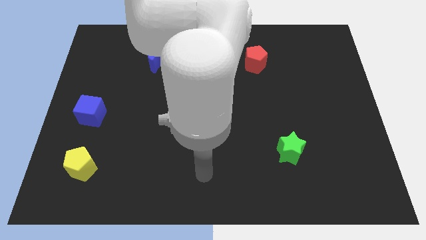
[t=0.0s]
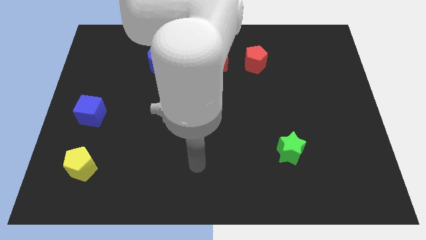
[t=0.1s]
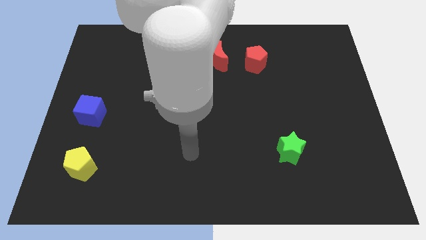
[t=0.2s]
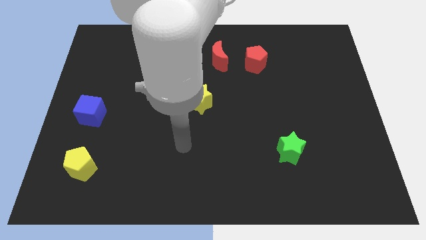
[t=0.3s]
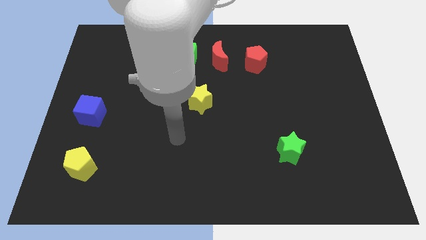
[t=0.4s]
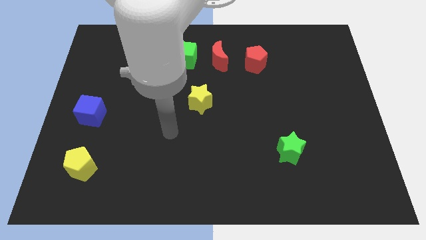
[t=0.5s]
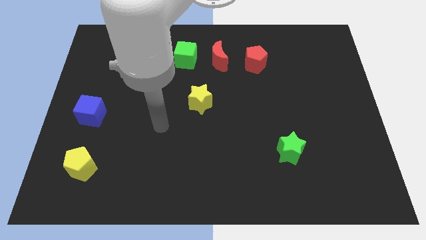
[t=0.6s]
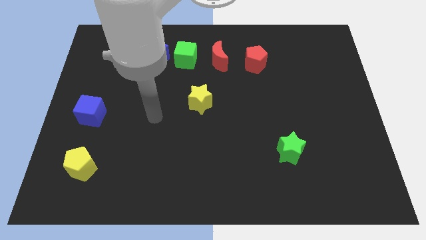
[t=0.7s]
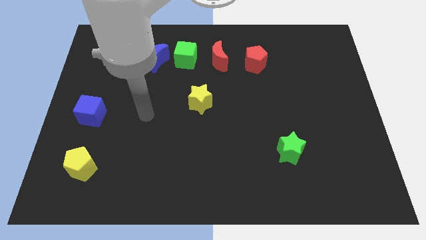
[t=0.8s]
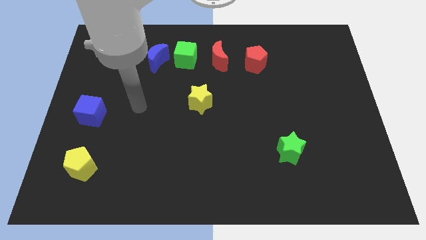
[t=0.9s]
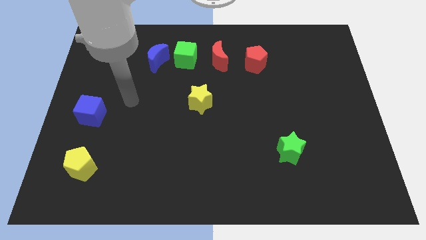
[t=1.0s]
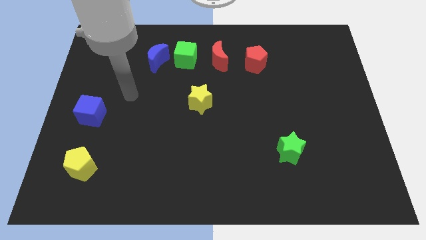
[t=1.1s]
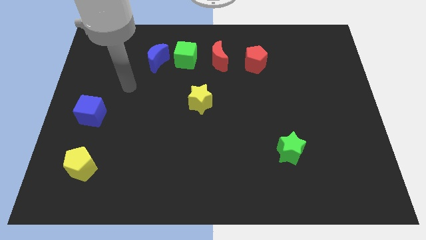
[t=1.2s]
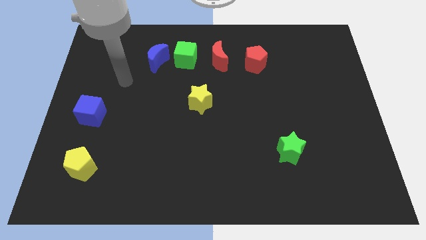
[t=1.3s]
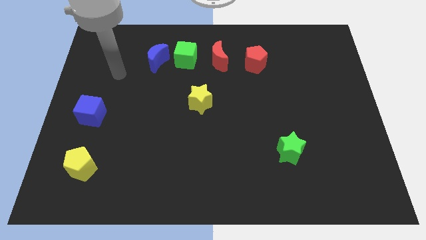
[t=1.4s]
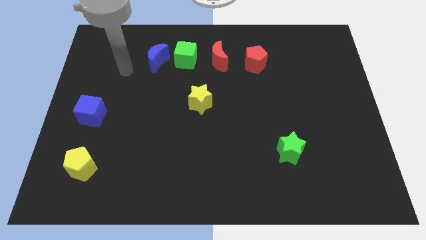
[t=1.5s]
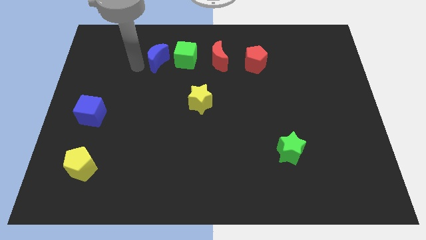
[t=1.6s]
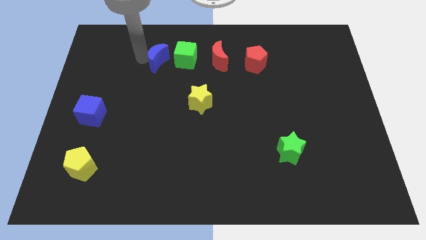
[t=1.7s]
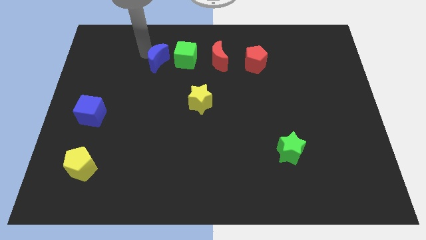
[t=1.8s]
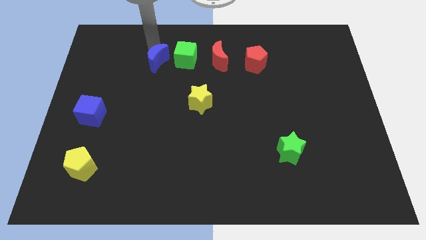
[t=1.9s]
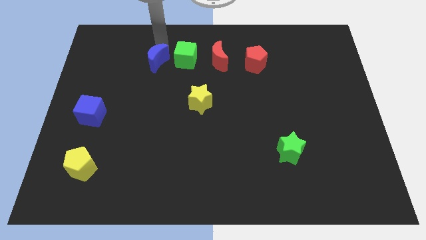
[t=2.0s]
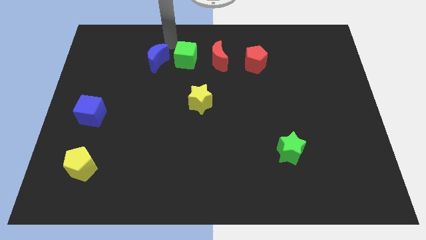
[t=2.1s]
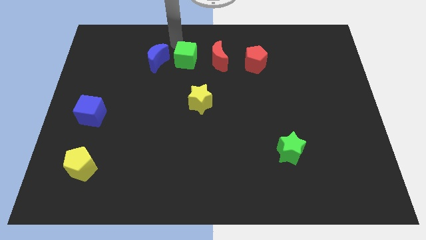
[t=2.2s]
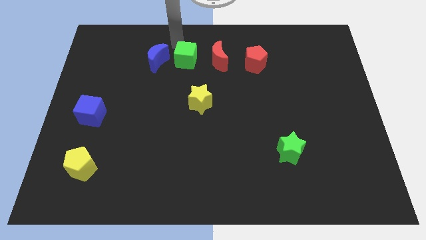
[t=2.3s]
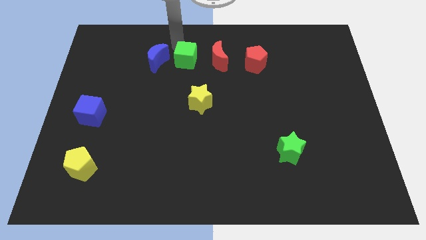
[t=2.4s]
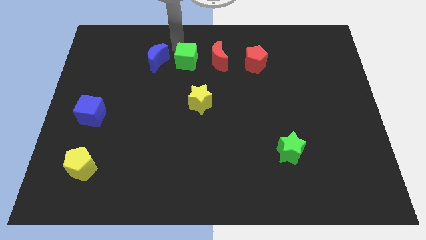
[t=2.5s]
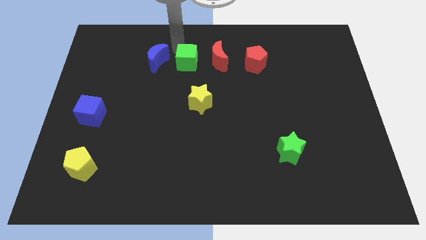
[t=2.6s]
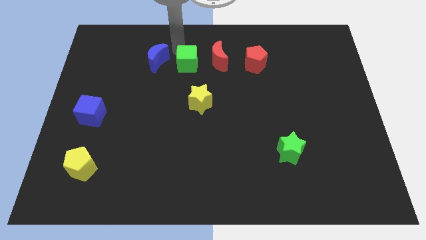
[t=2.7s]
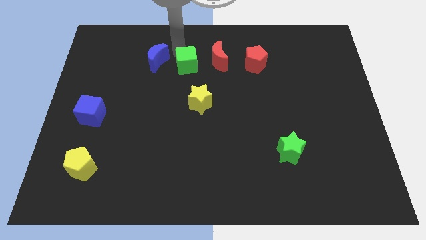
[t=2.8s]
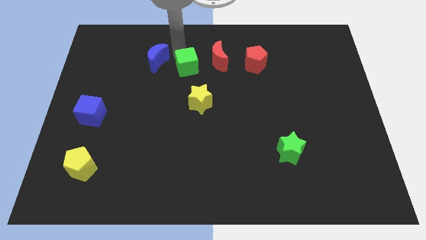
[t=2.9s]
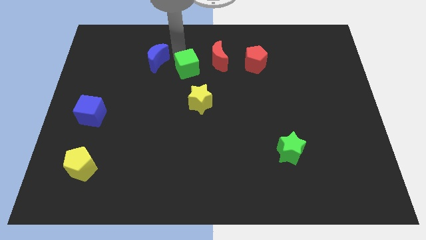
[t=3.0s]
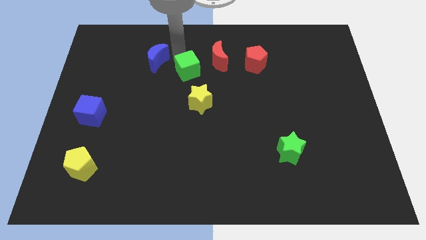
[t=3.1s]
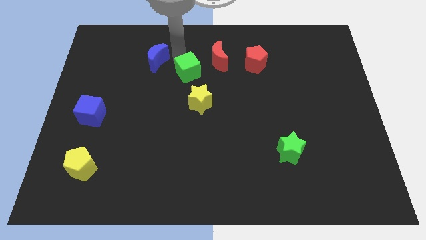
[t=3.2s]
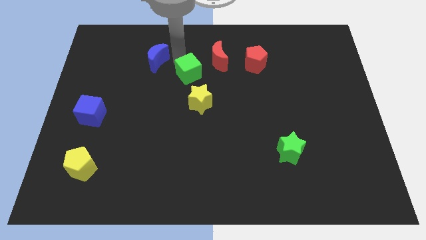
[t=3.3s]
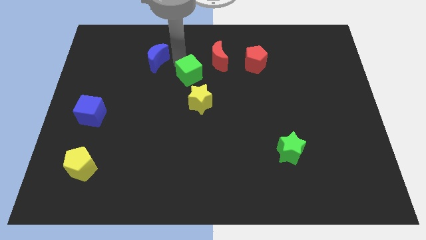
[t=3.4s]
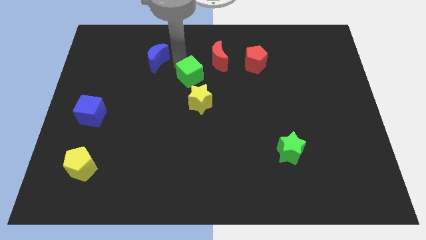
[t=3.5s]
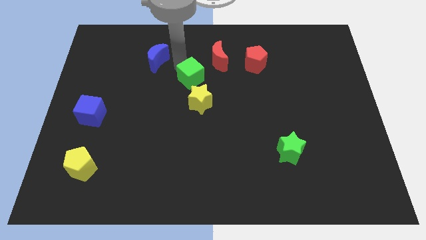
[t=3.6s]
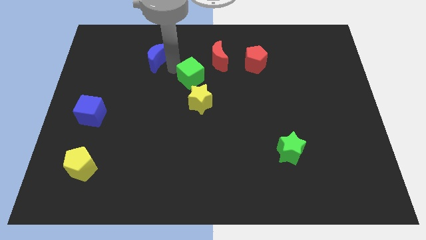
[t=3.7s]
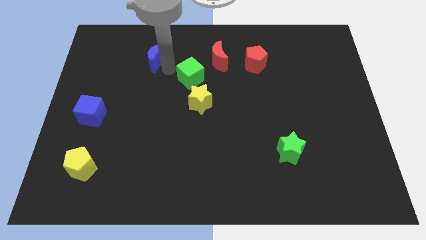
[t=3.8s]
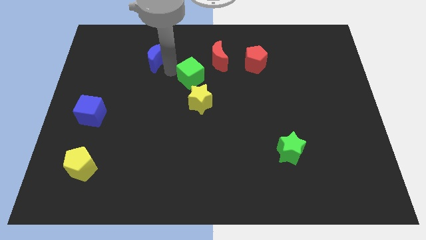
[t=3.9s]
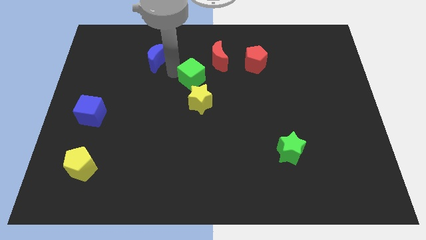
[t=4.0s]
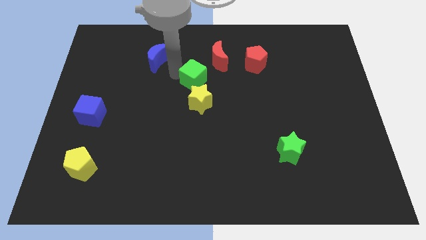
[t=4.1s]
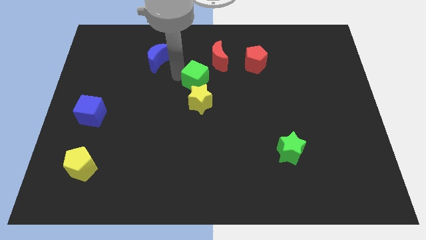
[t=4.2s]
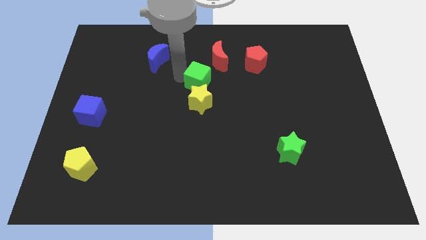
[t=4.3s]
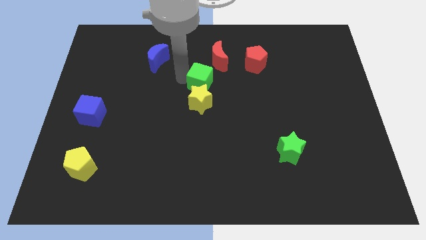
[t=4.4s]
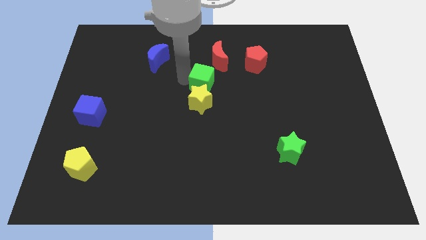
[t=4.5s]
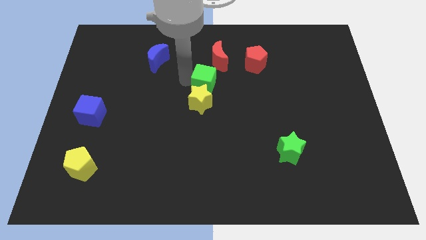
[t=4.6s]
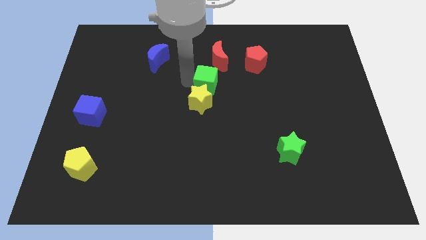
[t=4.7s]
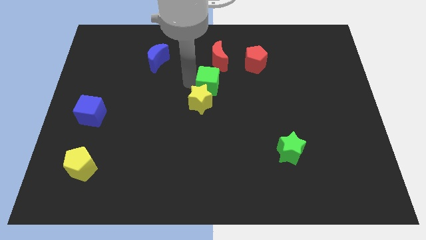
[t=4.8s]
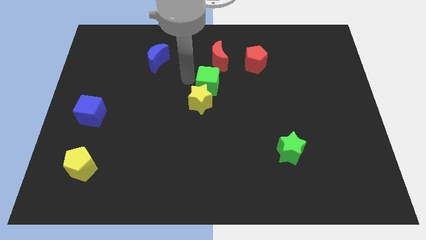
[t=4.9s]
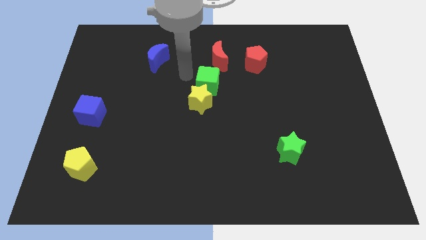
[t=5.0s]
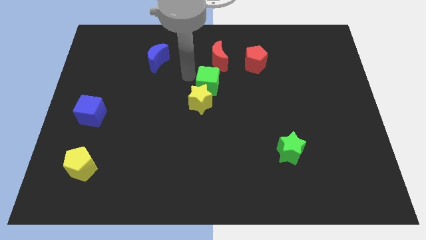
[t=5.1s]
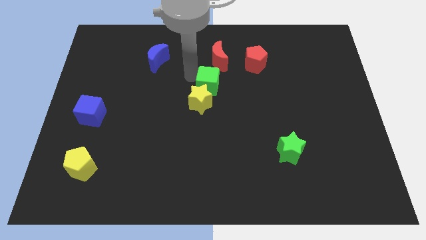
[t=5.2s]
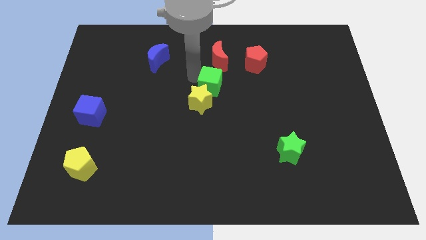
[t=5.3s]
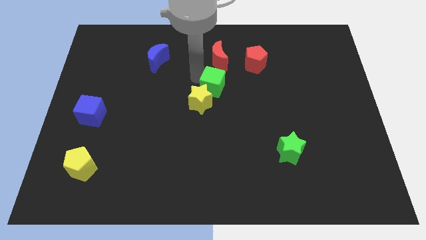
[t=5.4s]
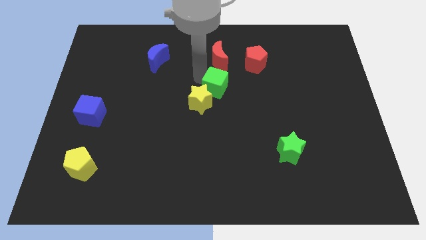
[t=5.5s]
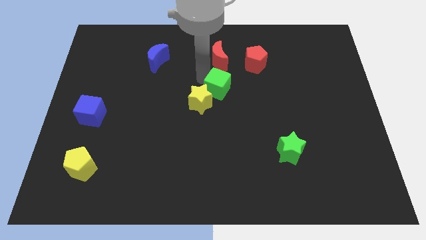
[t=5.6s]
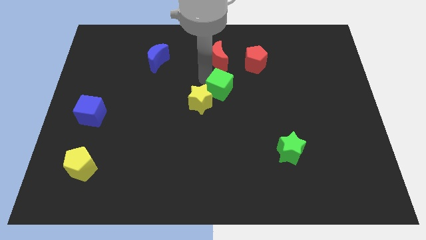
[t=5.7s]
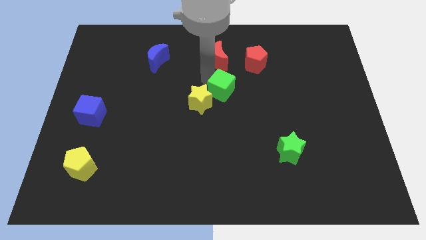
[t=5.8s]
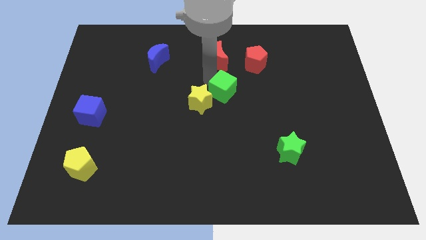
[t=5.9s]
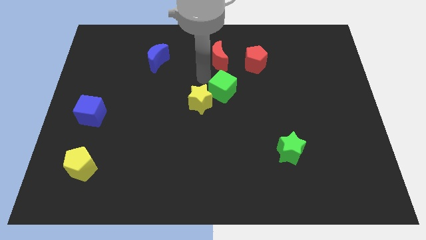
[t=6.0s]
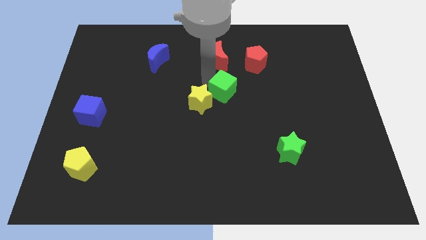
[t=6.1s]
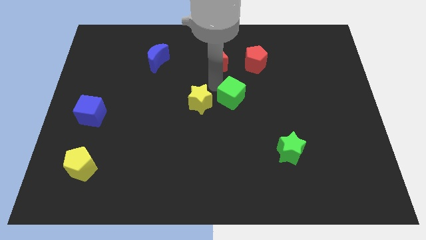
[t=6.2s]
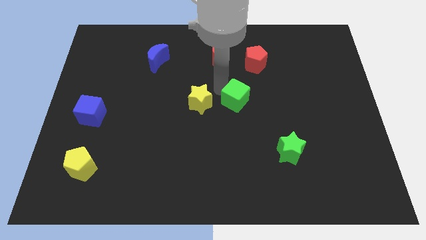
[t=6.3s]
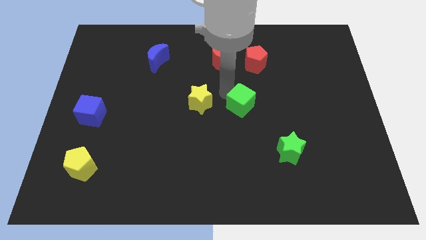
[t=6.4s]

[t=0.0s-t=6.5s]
push the green cube diagonally down and to the right

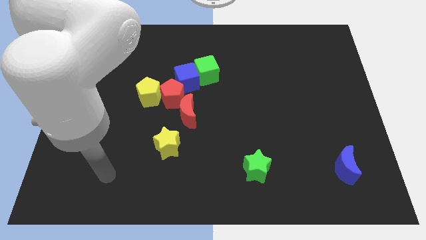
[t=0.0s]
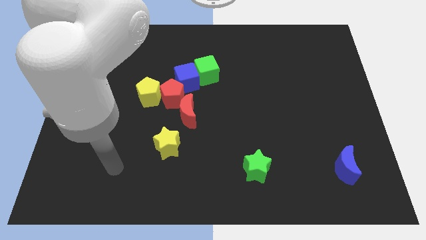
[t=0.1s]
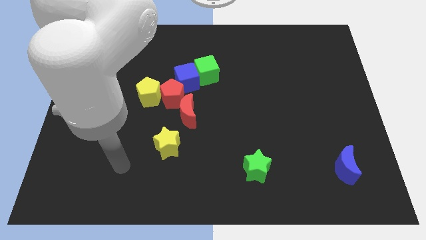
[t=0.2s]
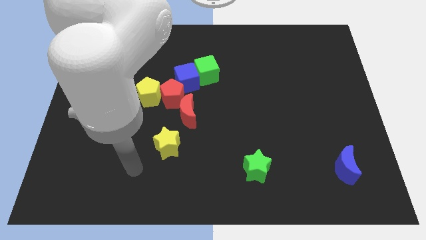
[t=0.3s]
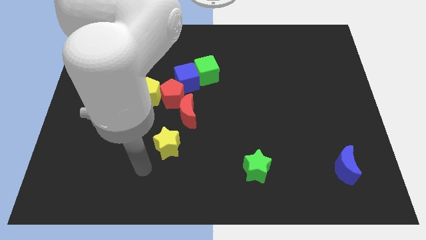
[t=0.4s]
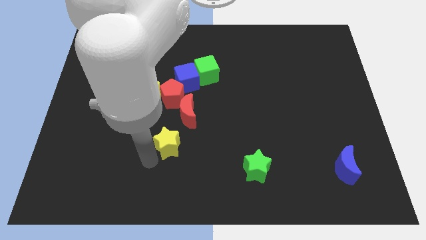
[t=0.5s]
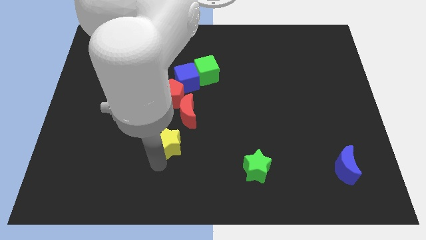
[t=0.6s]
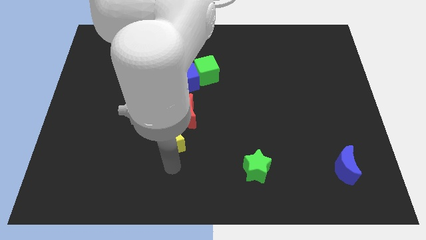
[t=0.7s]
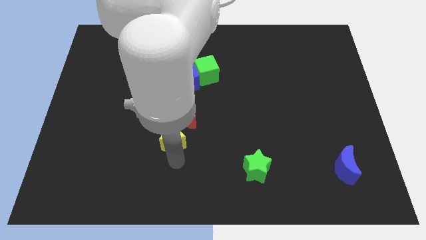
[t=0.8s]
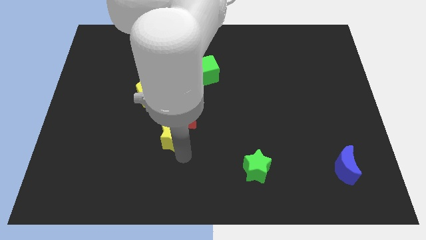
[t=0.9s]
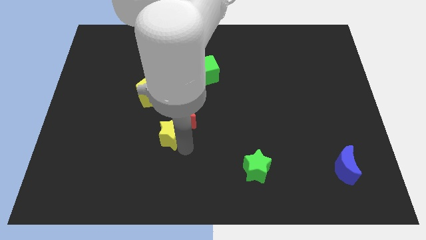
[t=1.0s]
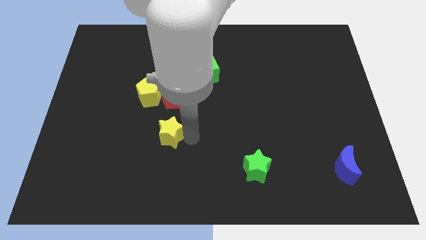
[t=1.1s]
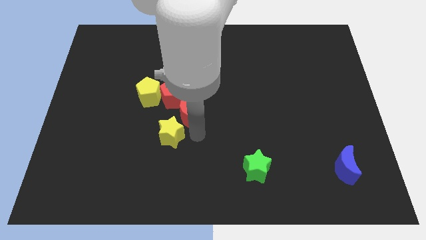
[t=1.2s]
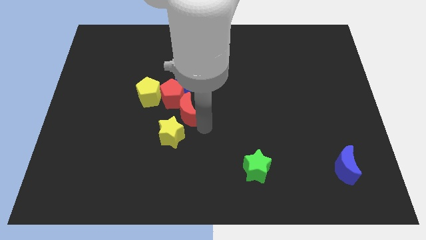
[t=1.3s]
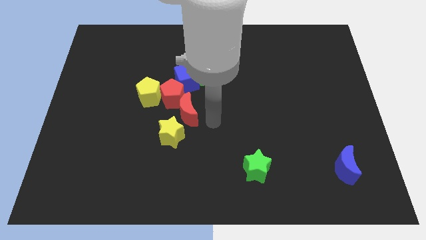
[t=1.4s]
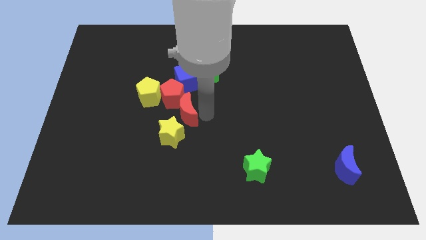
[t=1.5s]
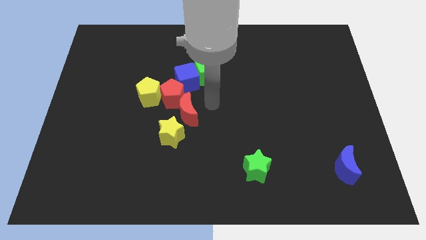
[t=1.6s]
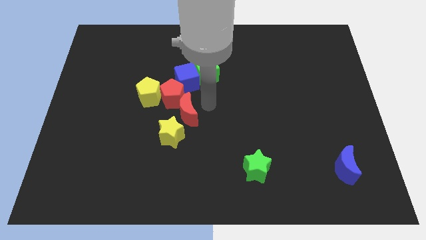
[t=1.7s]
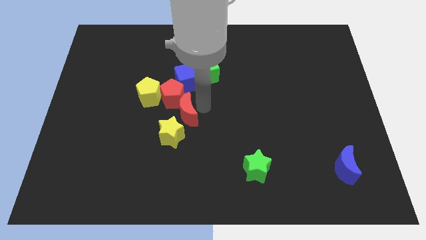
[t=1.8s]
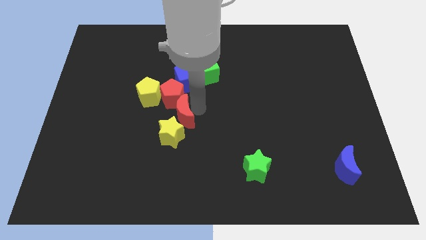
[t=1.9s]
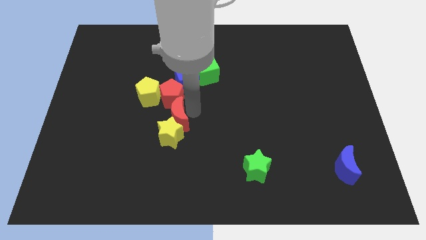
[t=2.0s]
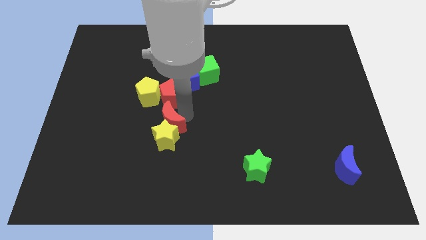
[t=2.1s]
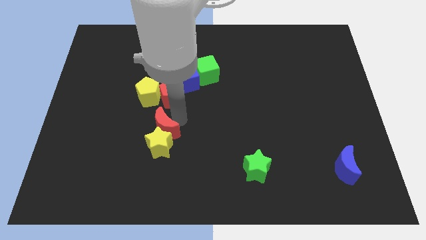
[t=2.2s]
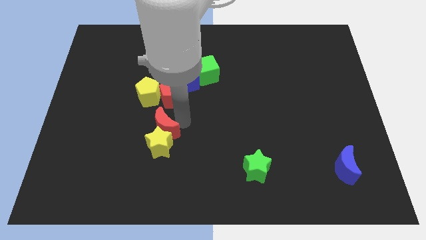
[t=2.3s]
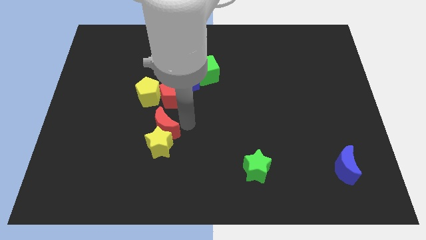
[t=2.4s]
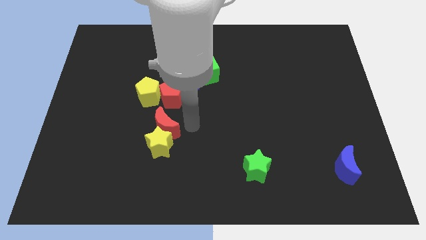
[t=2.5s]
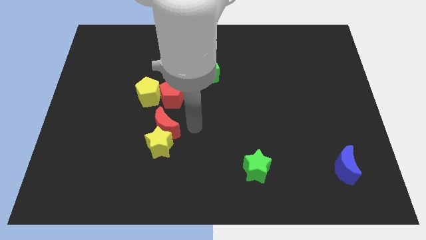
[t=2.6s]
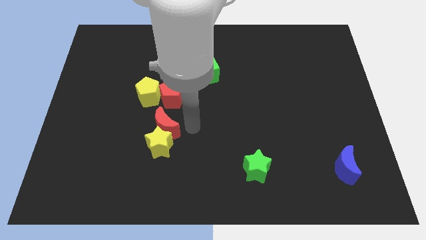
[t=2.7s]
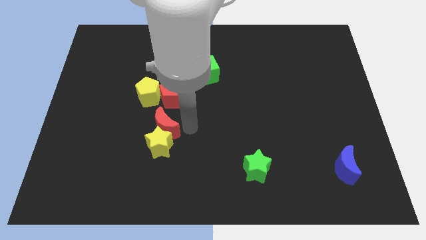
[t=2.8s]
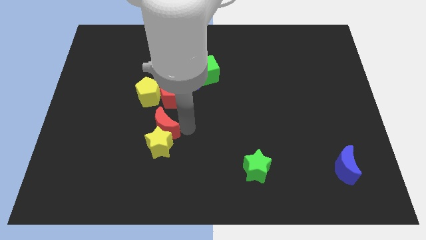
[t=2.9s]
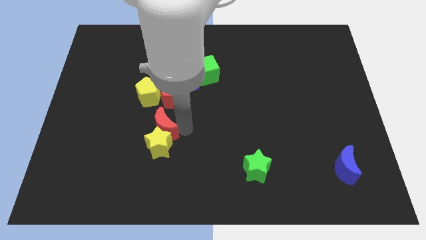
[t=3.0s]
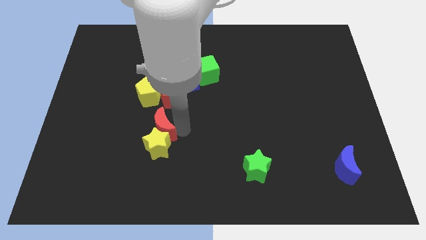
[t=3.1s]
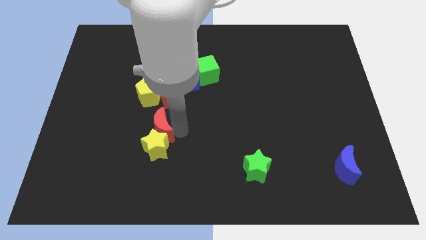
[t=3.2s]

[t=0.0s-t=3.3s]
slightly push the red moon down and left
